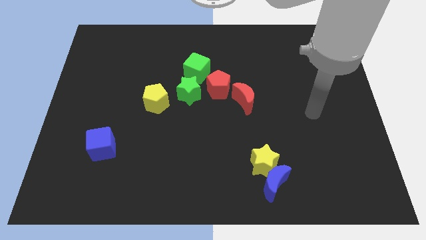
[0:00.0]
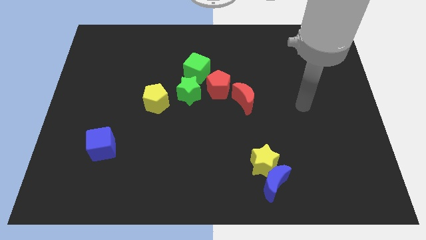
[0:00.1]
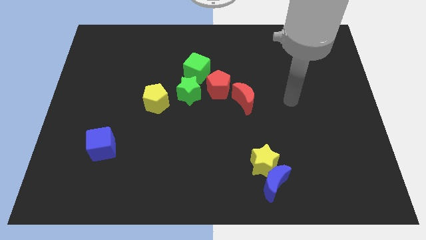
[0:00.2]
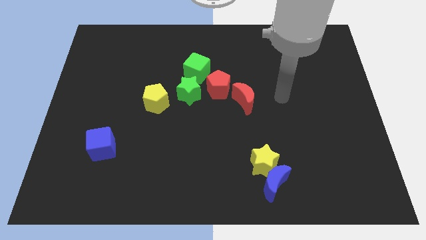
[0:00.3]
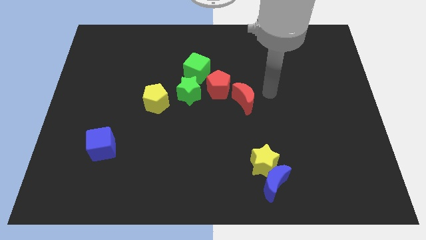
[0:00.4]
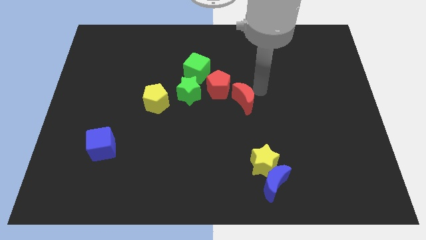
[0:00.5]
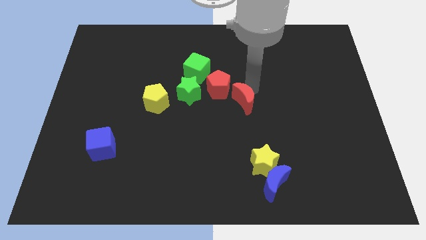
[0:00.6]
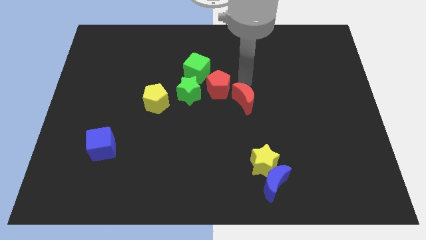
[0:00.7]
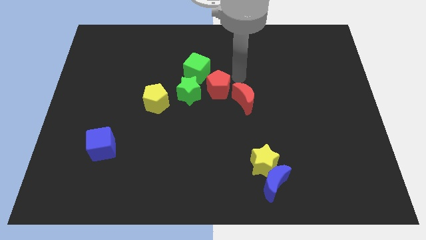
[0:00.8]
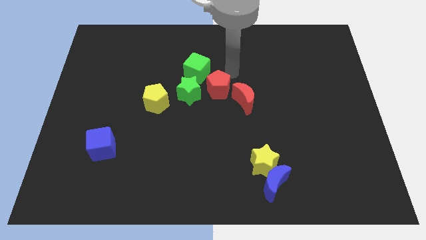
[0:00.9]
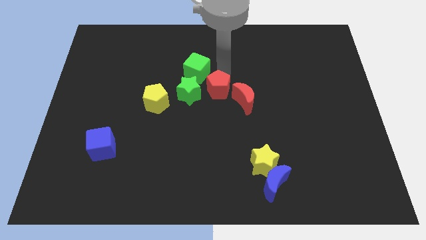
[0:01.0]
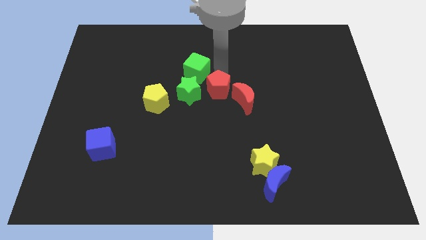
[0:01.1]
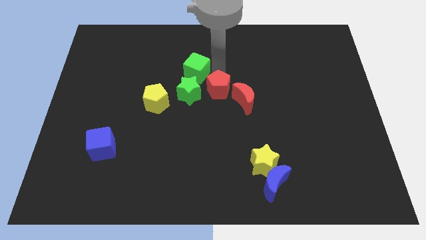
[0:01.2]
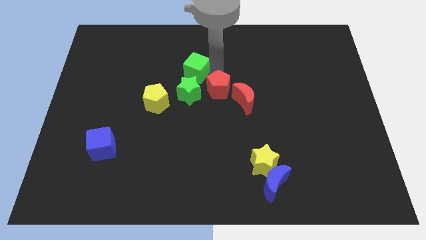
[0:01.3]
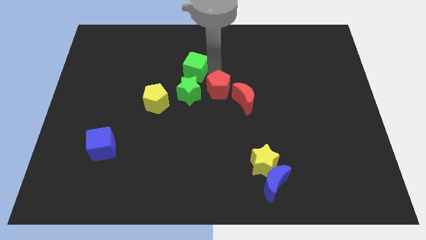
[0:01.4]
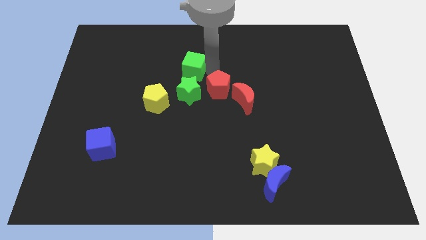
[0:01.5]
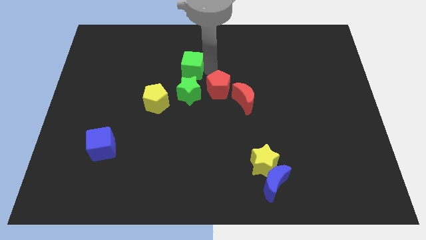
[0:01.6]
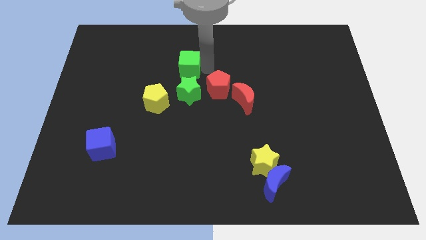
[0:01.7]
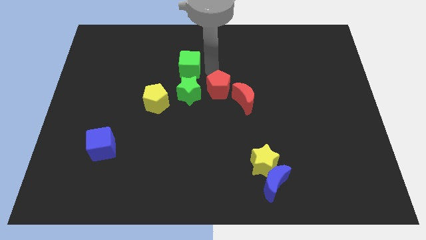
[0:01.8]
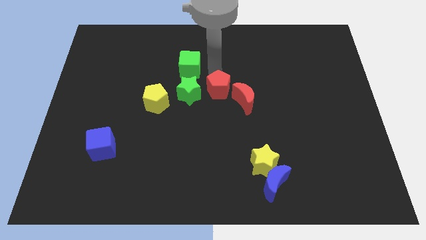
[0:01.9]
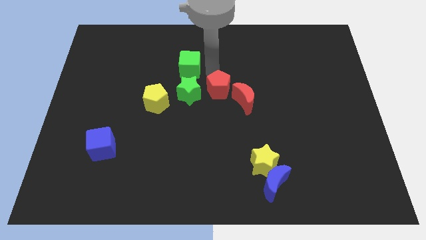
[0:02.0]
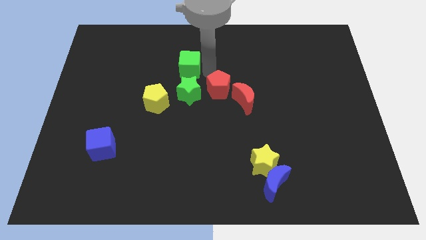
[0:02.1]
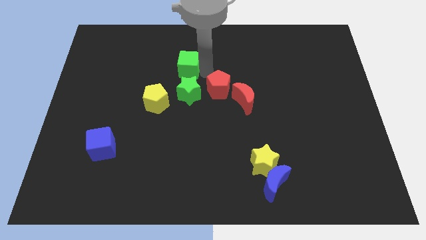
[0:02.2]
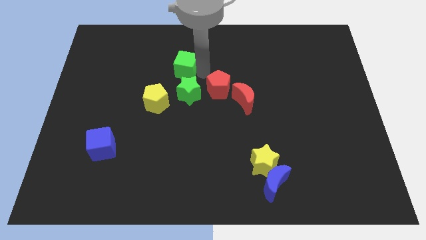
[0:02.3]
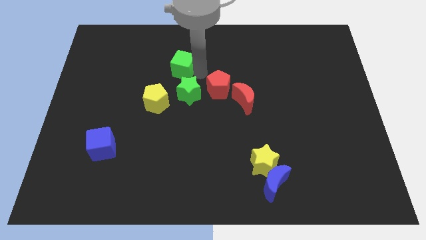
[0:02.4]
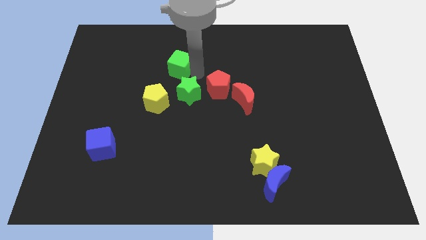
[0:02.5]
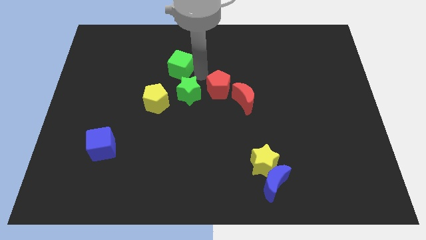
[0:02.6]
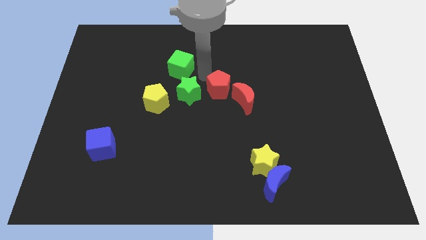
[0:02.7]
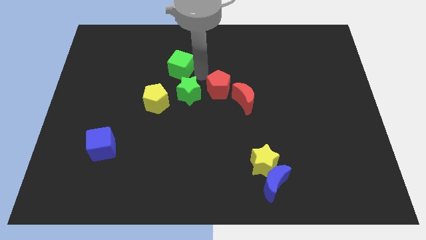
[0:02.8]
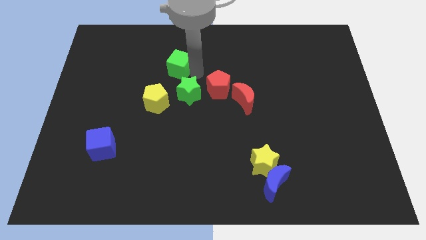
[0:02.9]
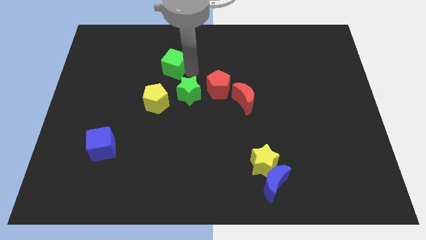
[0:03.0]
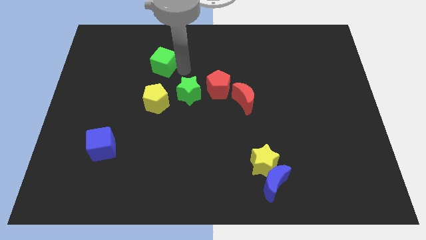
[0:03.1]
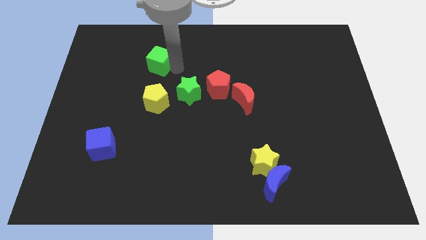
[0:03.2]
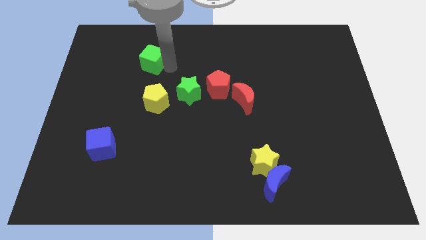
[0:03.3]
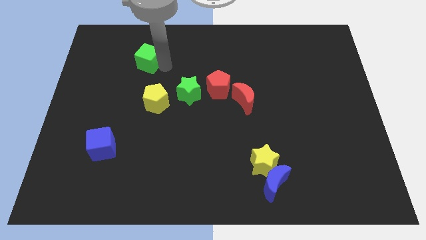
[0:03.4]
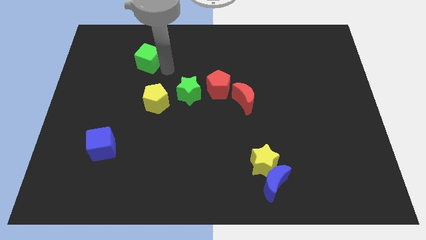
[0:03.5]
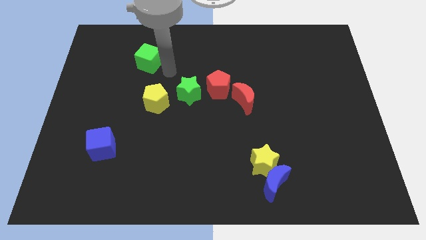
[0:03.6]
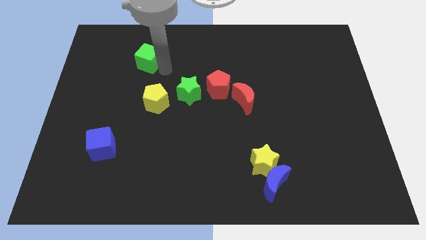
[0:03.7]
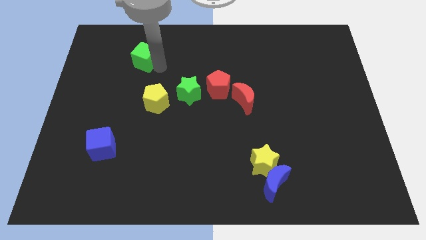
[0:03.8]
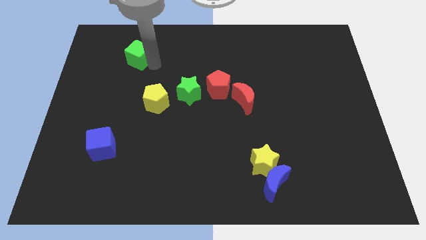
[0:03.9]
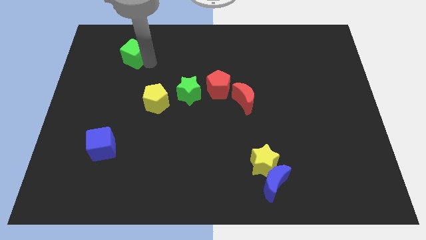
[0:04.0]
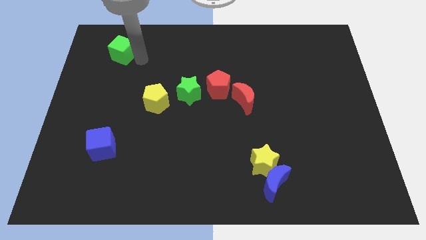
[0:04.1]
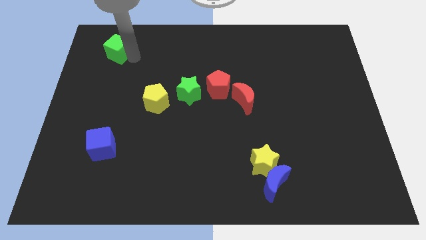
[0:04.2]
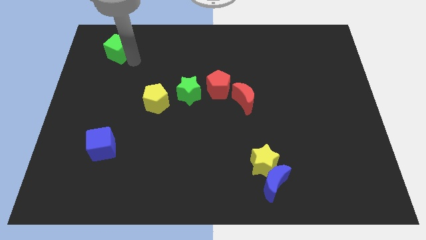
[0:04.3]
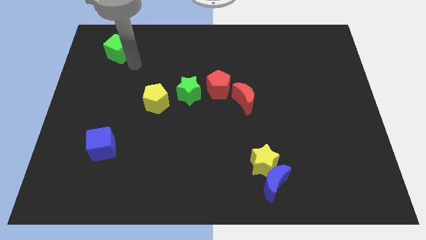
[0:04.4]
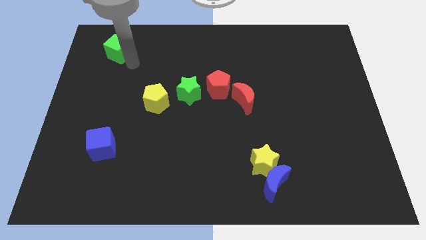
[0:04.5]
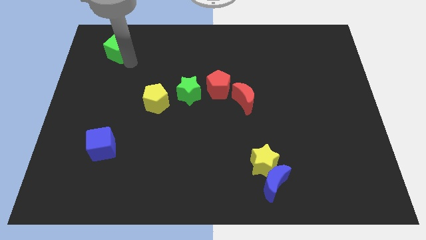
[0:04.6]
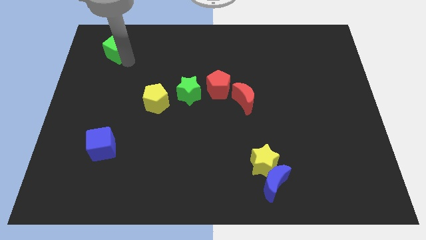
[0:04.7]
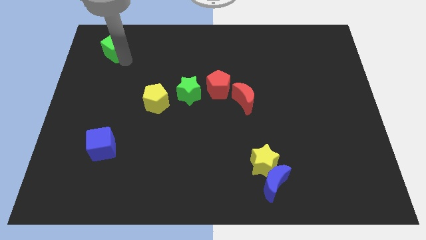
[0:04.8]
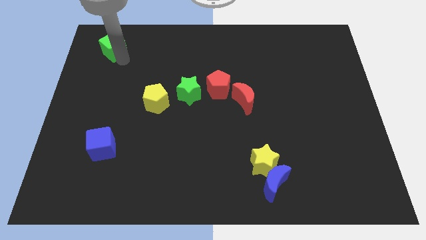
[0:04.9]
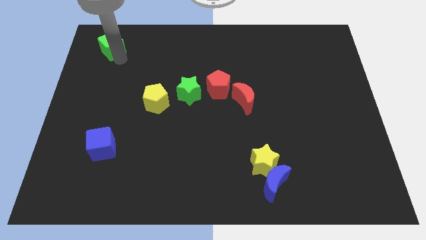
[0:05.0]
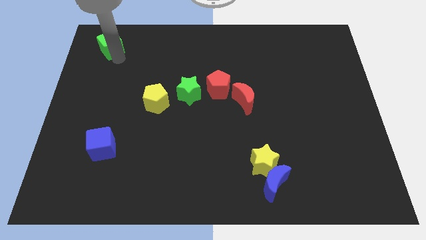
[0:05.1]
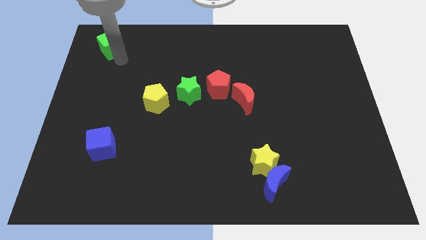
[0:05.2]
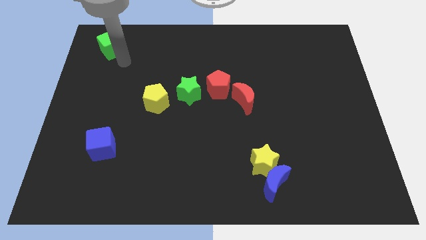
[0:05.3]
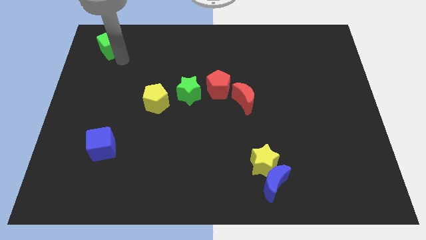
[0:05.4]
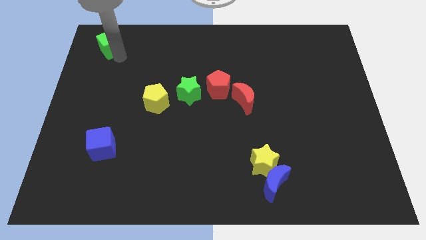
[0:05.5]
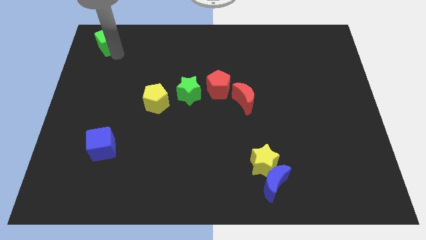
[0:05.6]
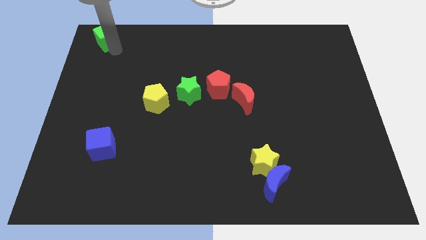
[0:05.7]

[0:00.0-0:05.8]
push the green cube to the top left of the board

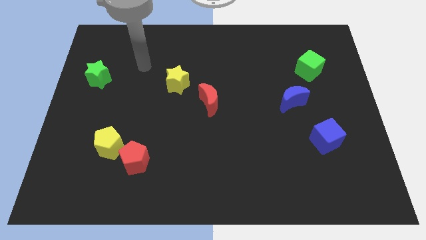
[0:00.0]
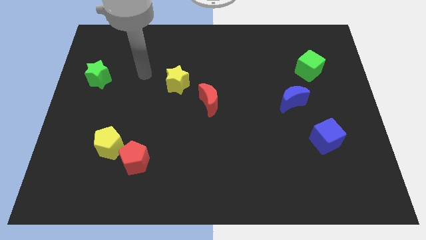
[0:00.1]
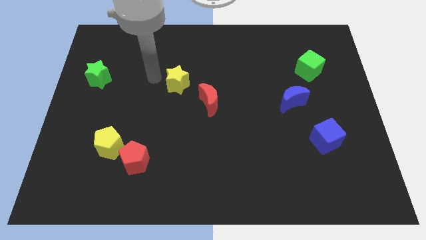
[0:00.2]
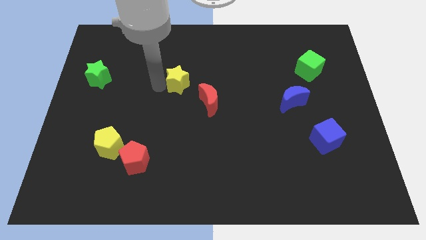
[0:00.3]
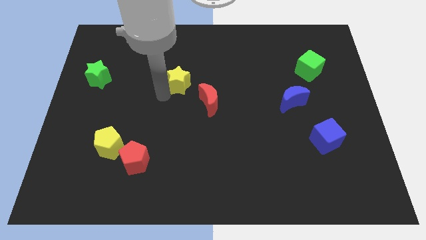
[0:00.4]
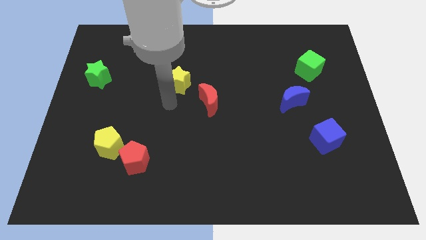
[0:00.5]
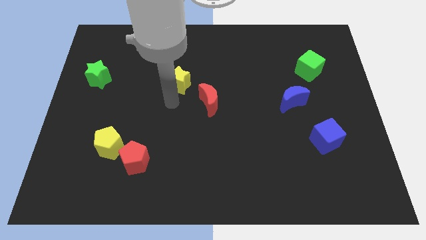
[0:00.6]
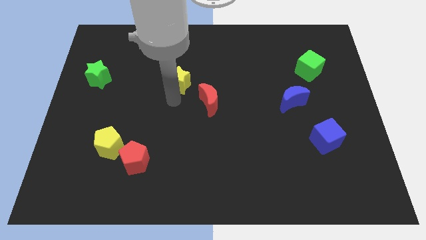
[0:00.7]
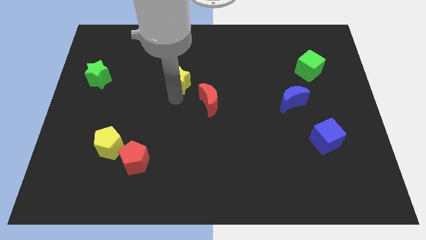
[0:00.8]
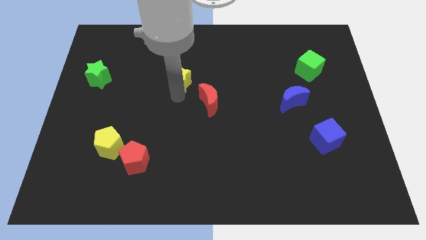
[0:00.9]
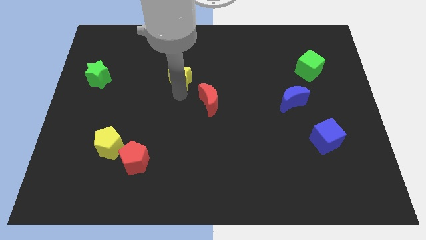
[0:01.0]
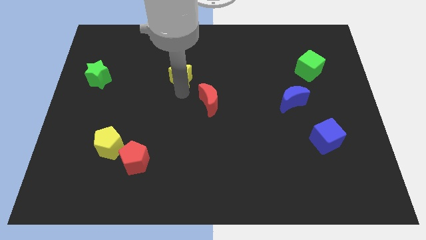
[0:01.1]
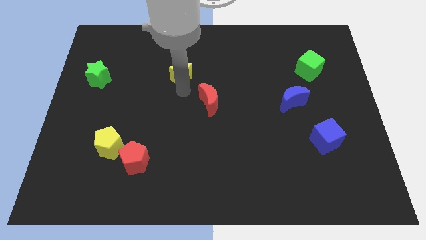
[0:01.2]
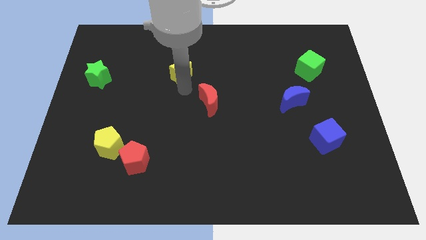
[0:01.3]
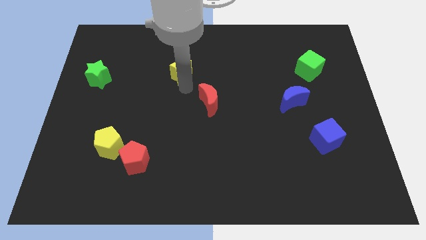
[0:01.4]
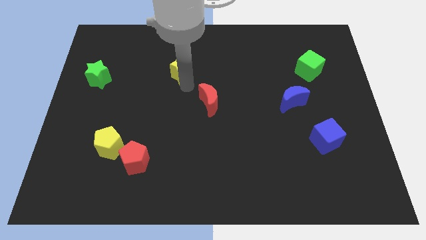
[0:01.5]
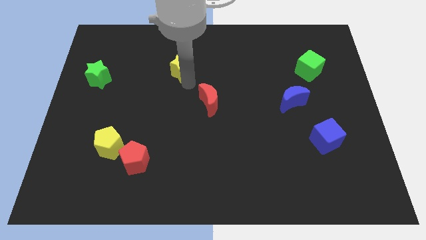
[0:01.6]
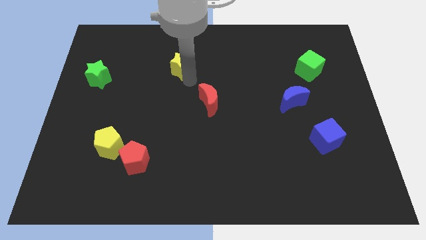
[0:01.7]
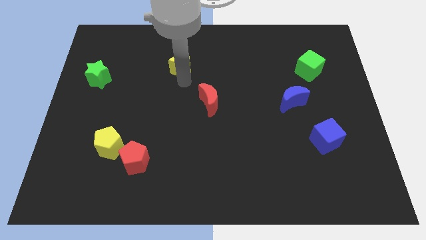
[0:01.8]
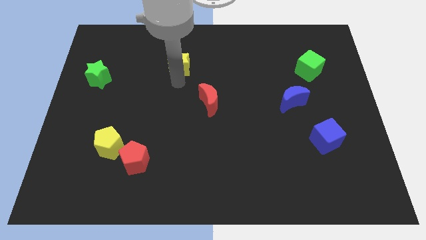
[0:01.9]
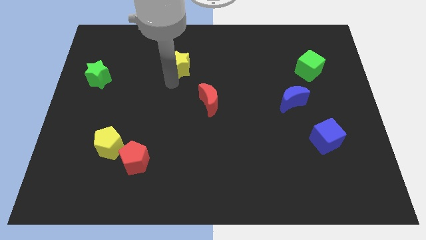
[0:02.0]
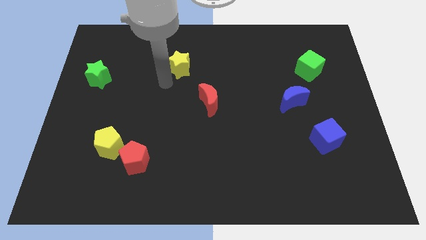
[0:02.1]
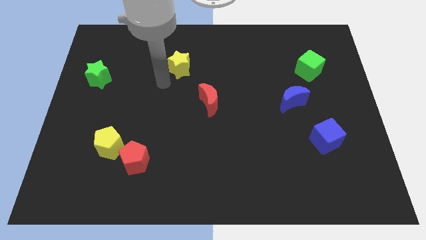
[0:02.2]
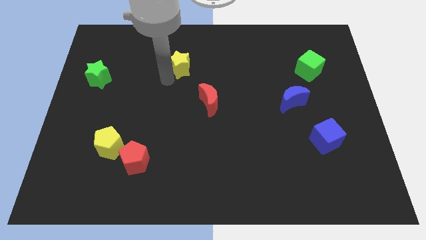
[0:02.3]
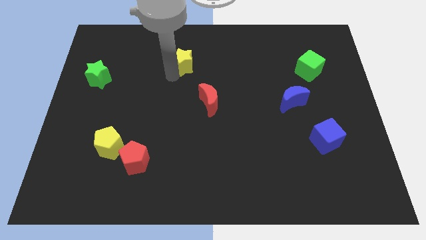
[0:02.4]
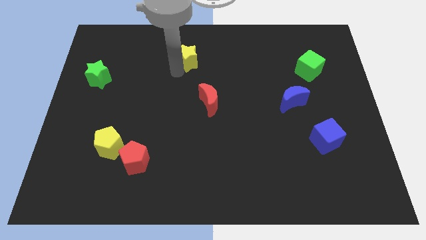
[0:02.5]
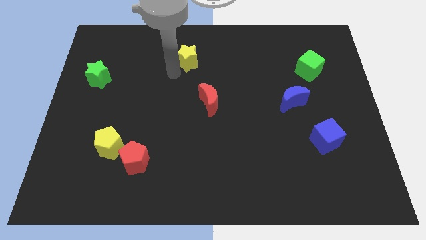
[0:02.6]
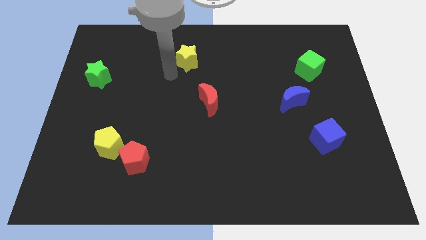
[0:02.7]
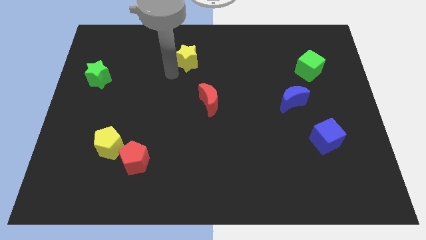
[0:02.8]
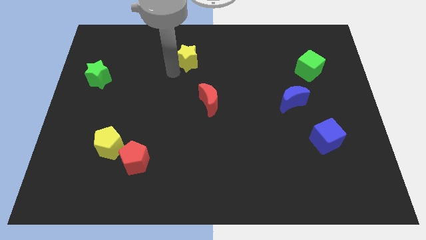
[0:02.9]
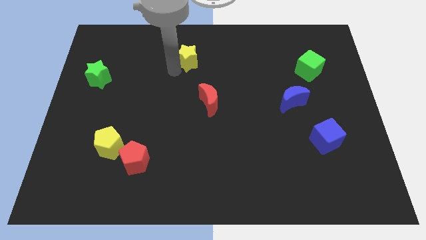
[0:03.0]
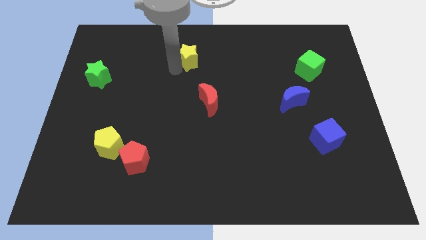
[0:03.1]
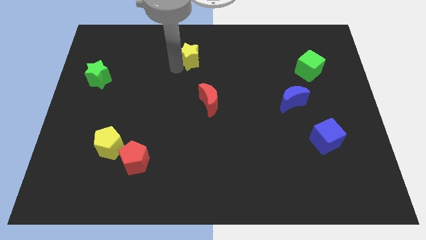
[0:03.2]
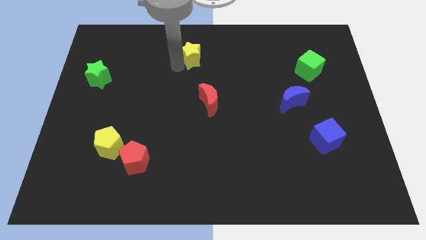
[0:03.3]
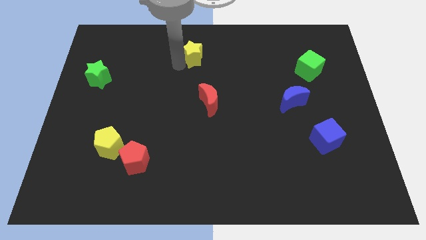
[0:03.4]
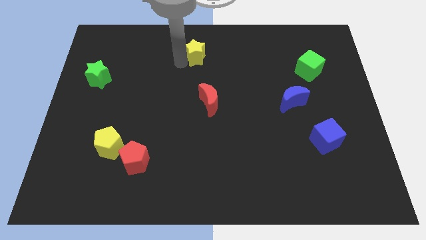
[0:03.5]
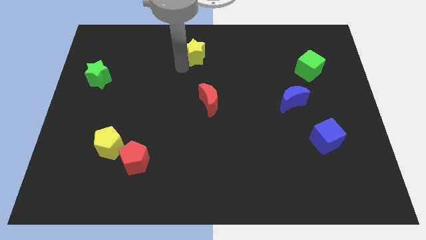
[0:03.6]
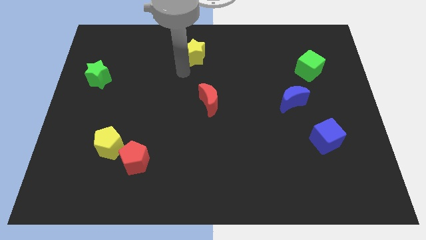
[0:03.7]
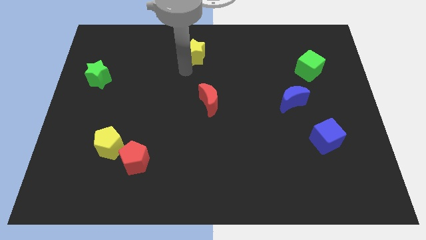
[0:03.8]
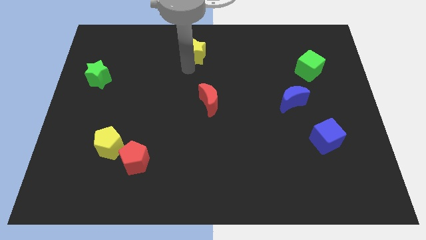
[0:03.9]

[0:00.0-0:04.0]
move the yellow star to the top
